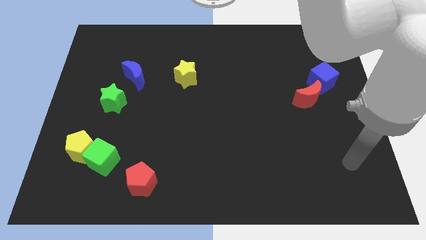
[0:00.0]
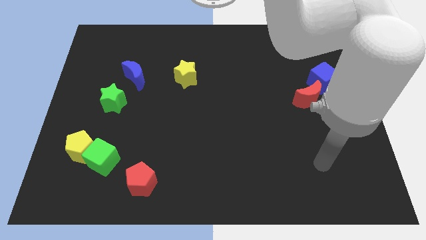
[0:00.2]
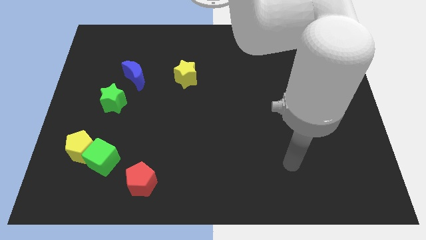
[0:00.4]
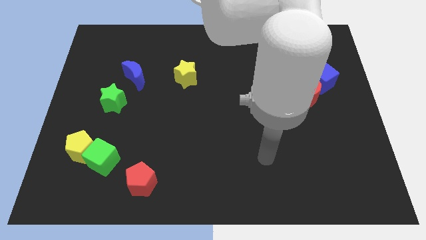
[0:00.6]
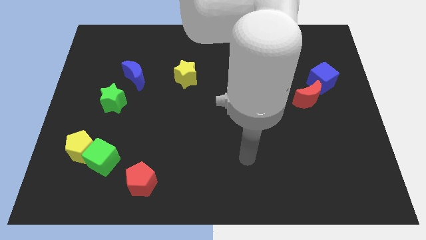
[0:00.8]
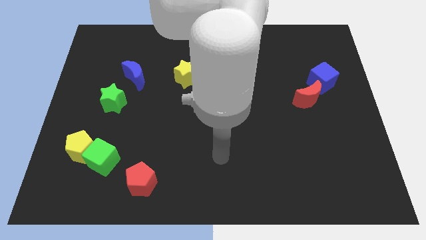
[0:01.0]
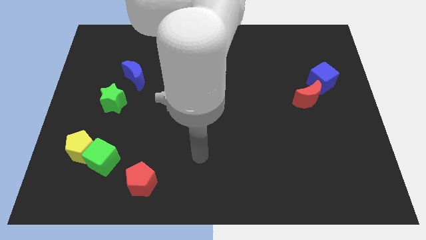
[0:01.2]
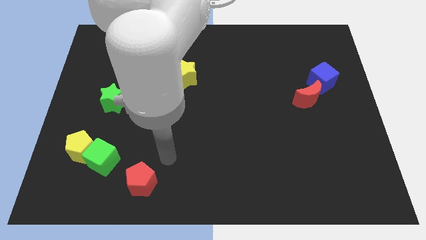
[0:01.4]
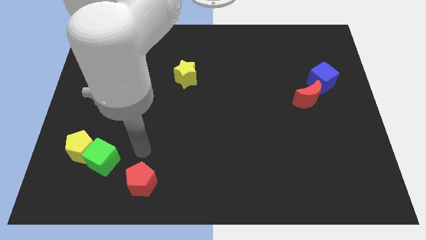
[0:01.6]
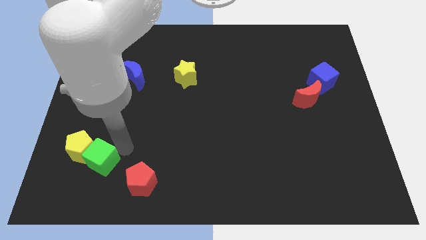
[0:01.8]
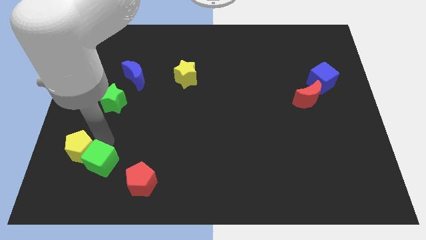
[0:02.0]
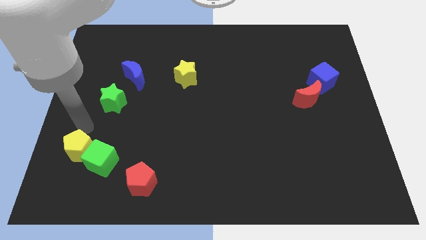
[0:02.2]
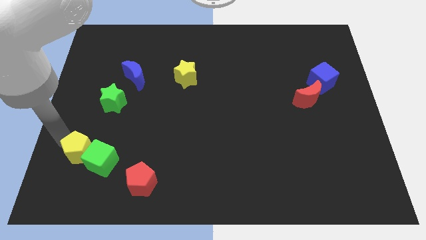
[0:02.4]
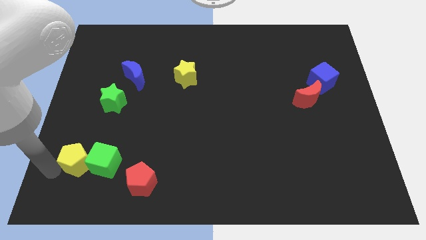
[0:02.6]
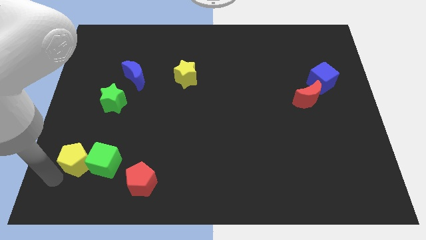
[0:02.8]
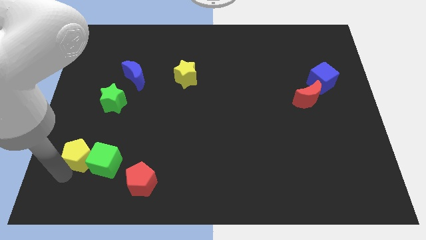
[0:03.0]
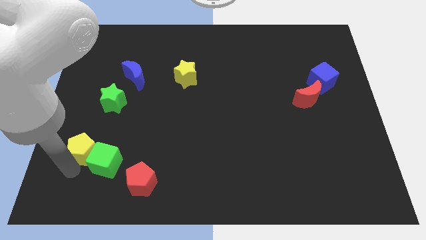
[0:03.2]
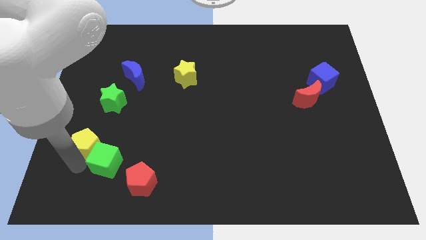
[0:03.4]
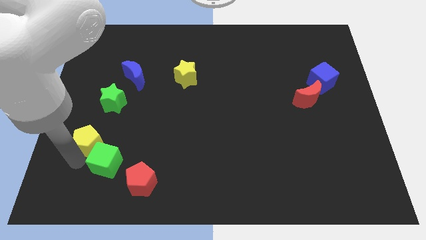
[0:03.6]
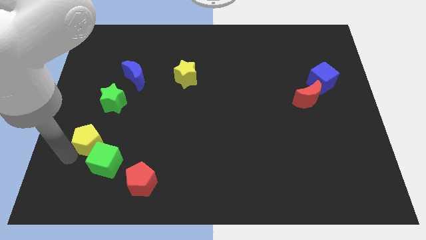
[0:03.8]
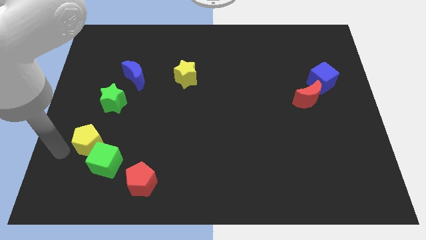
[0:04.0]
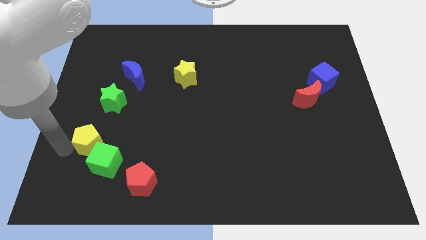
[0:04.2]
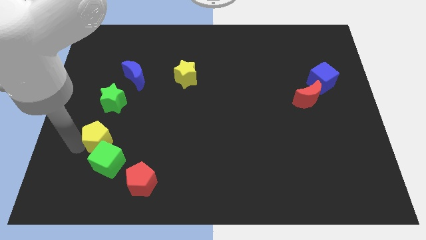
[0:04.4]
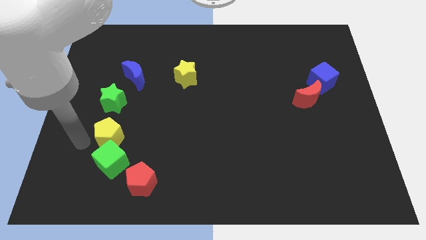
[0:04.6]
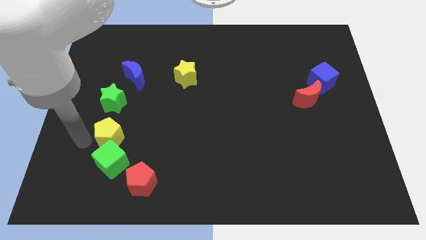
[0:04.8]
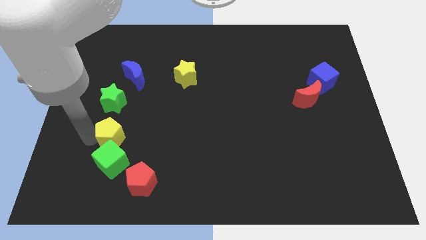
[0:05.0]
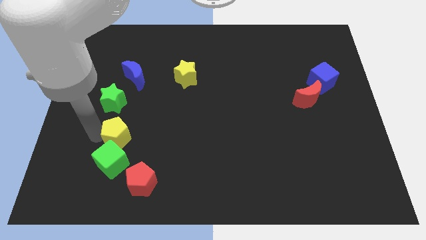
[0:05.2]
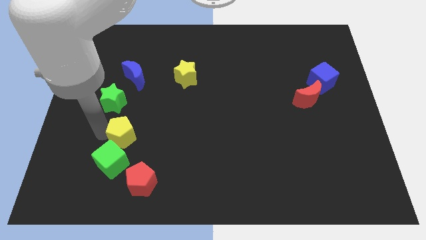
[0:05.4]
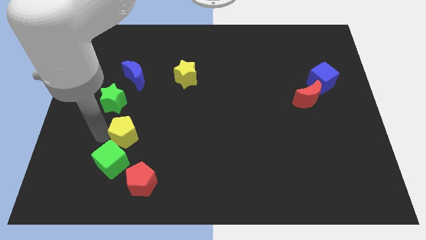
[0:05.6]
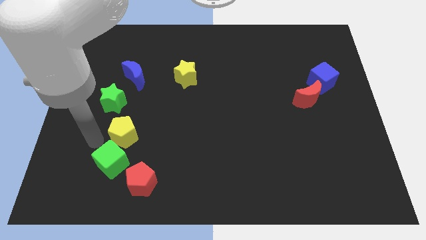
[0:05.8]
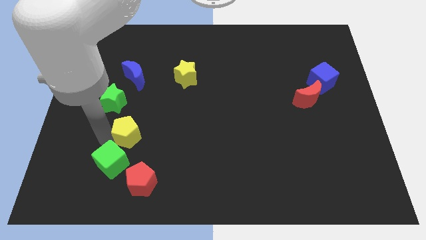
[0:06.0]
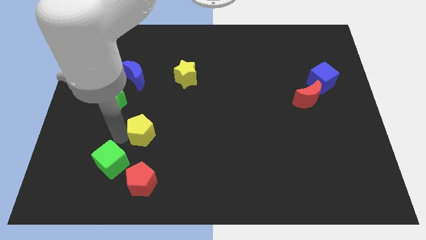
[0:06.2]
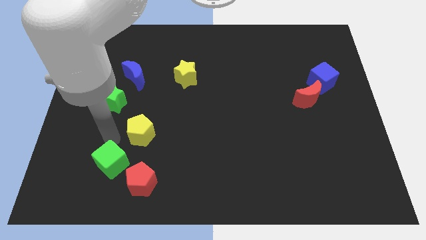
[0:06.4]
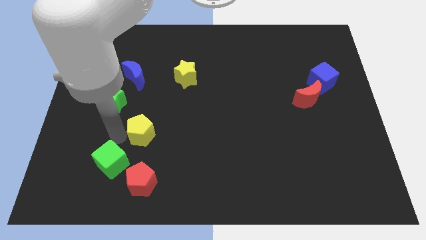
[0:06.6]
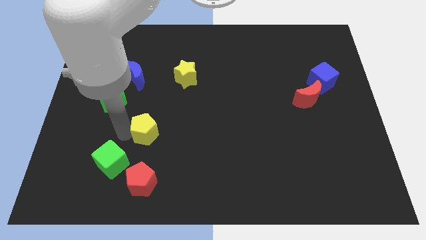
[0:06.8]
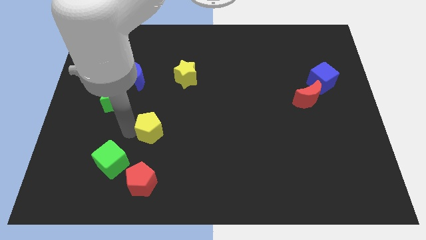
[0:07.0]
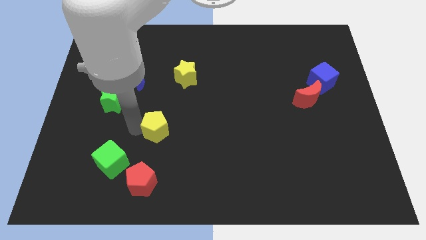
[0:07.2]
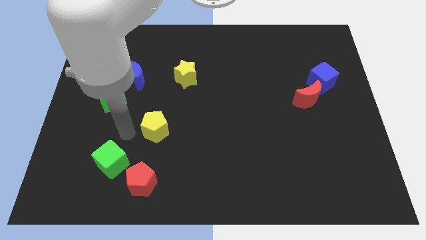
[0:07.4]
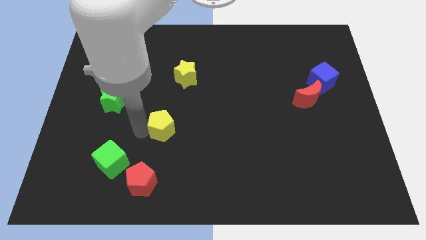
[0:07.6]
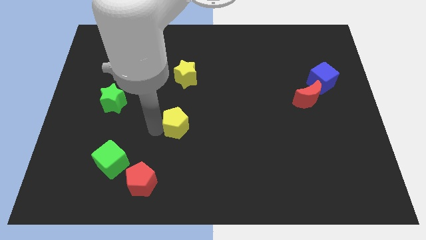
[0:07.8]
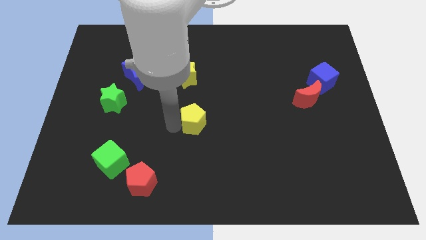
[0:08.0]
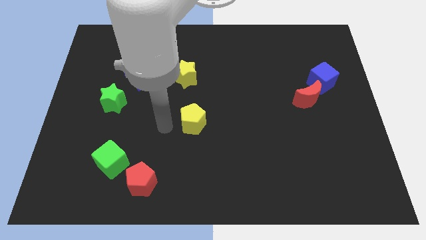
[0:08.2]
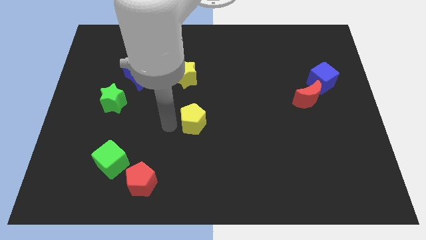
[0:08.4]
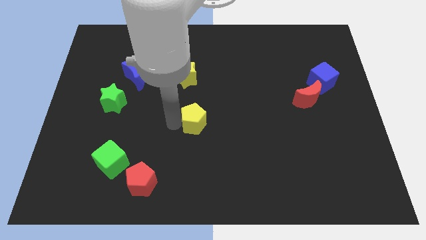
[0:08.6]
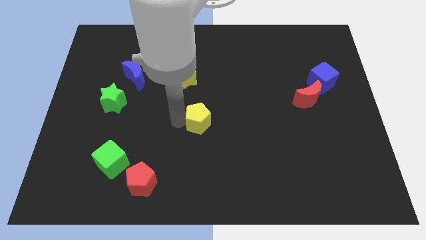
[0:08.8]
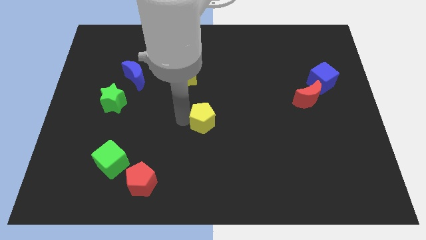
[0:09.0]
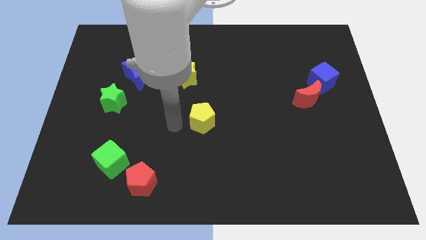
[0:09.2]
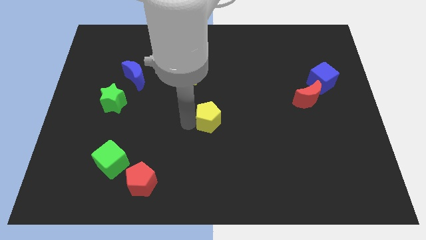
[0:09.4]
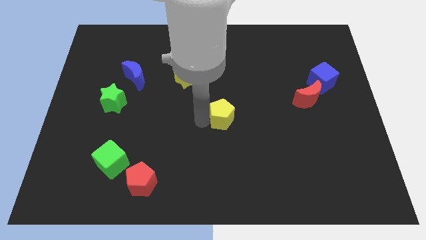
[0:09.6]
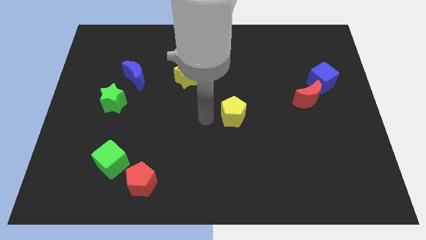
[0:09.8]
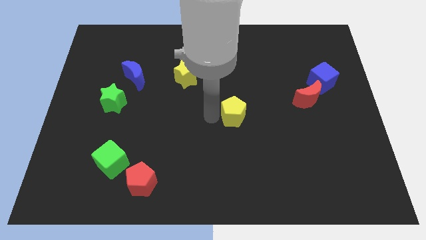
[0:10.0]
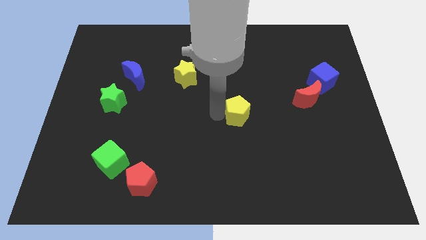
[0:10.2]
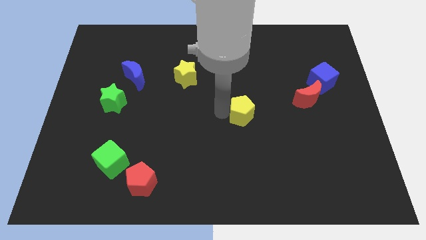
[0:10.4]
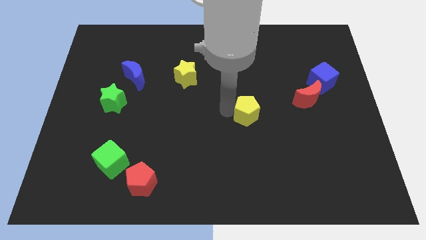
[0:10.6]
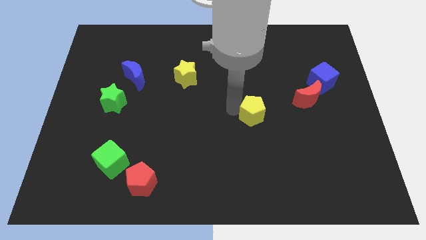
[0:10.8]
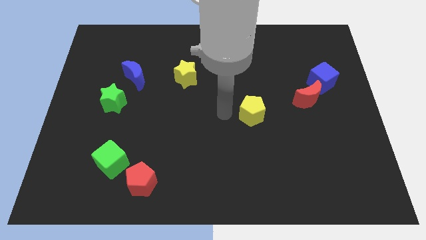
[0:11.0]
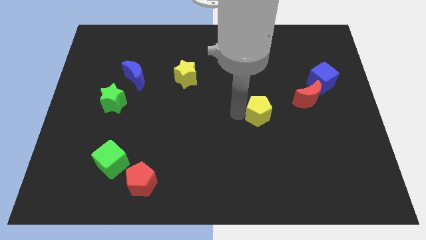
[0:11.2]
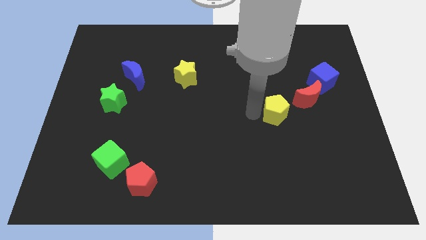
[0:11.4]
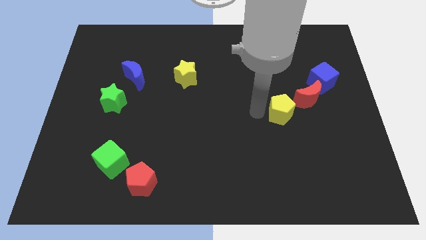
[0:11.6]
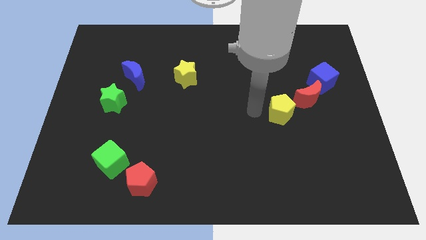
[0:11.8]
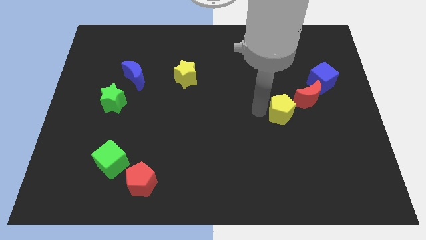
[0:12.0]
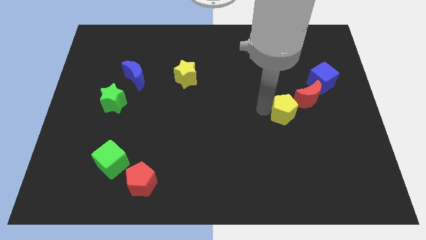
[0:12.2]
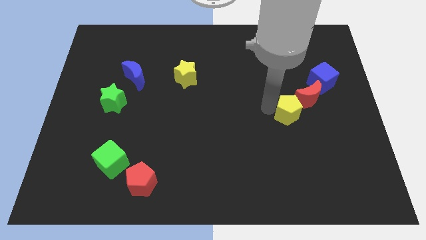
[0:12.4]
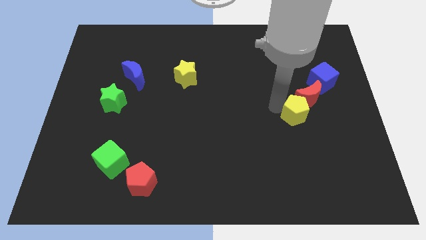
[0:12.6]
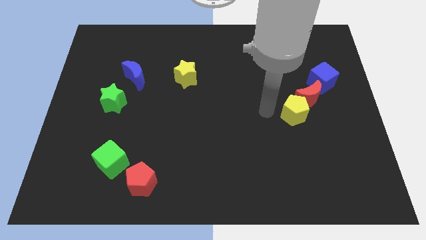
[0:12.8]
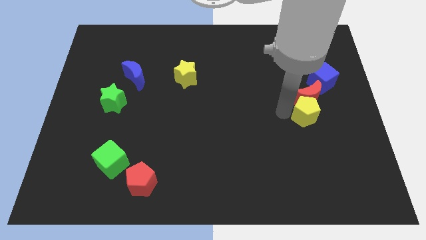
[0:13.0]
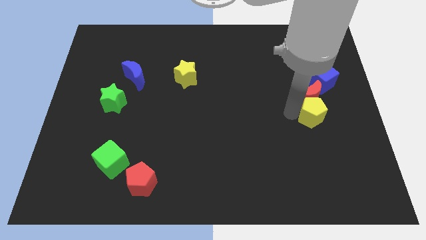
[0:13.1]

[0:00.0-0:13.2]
put the yellow pentagon to the bottom of the blue cube

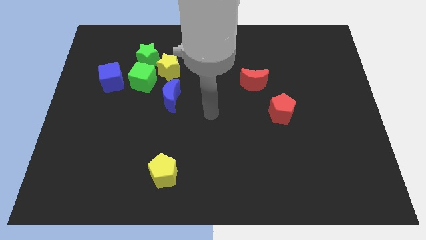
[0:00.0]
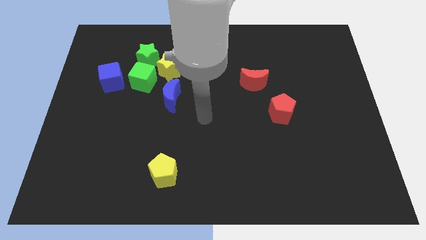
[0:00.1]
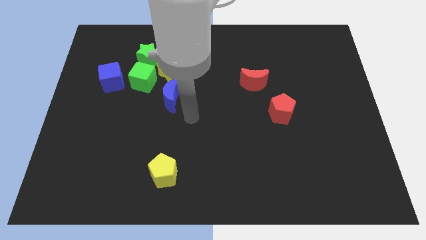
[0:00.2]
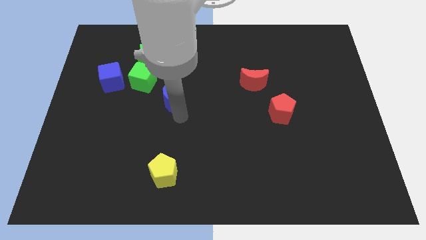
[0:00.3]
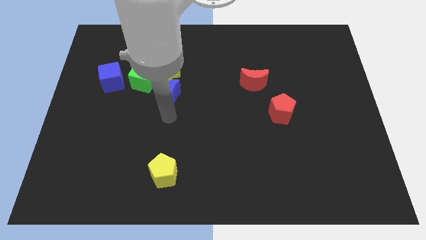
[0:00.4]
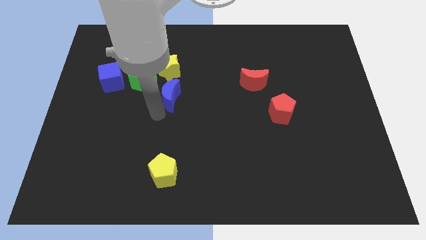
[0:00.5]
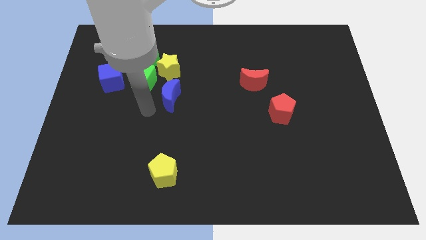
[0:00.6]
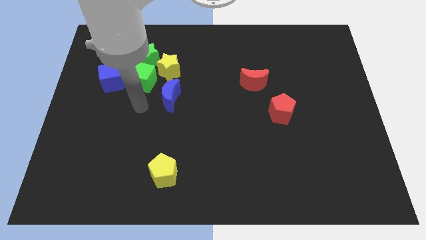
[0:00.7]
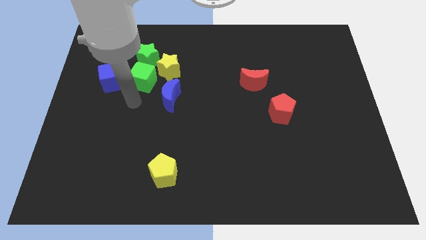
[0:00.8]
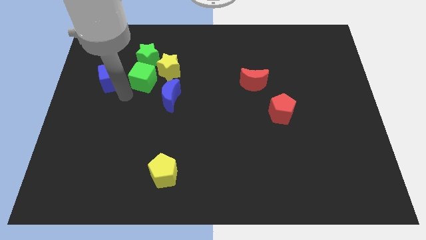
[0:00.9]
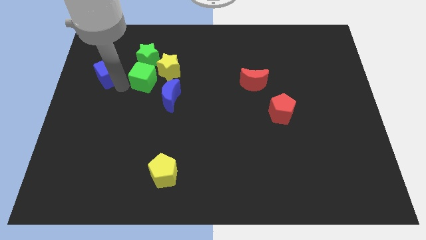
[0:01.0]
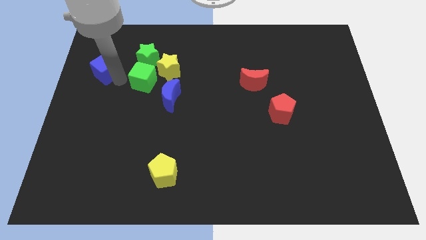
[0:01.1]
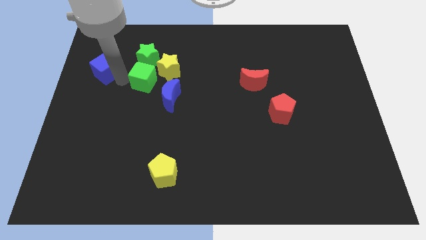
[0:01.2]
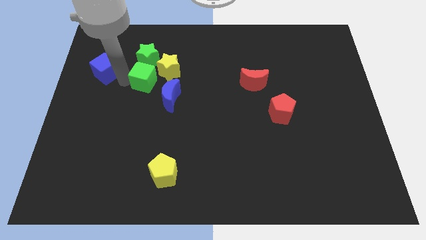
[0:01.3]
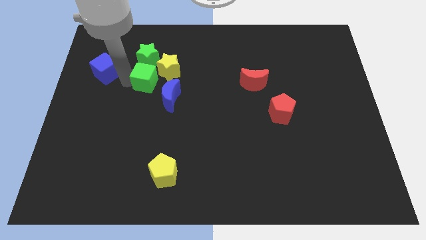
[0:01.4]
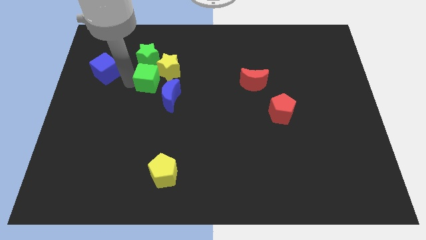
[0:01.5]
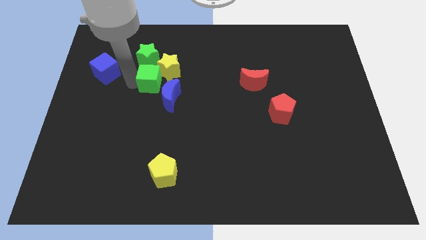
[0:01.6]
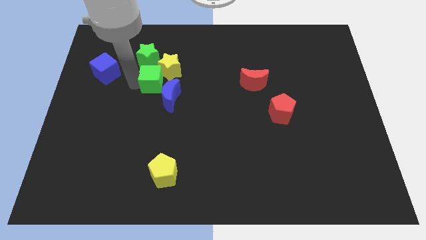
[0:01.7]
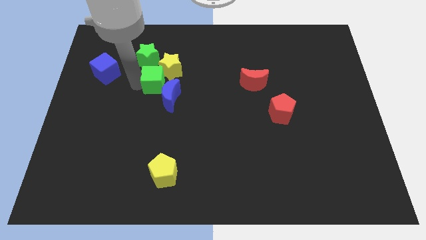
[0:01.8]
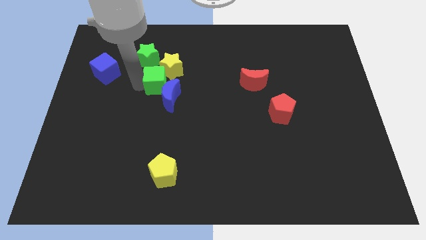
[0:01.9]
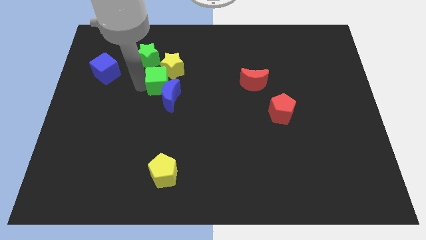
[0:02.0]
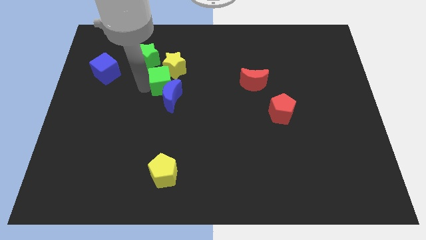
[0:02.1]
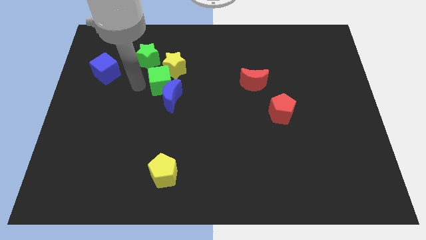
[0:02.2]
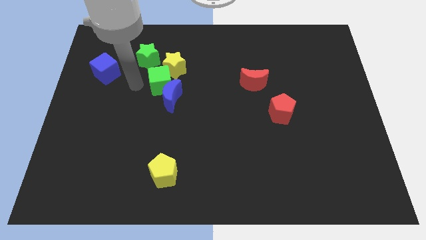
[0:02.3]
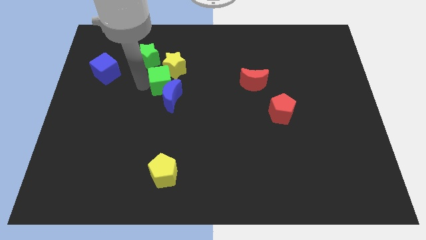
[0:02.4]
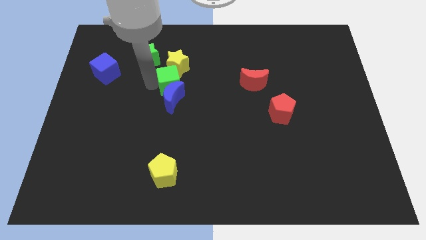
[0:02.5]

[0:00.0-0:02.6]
push the green cube to the top right side of the blue moon
